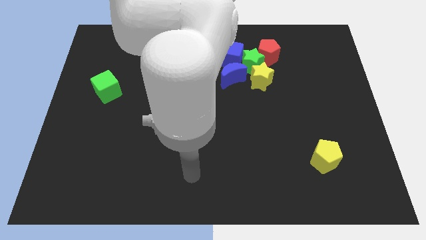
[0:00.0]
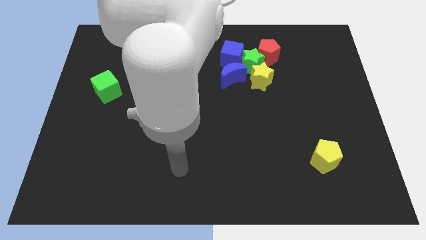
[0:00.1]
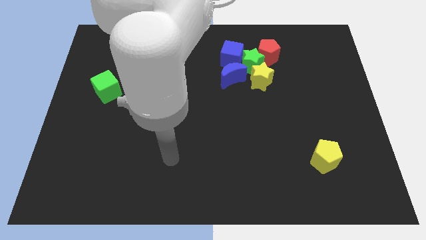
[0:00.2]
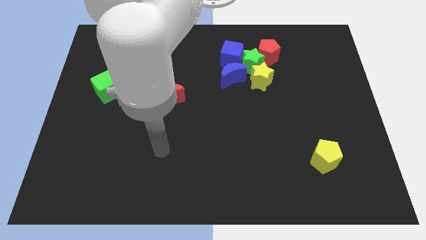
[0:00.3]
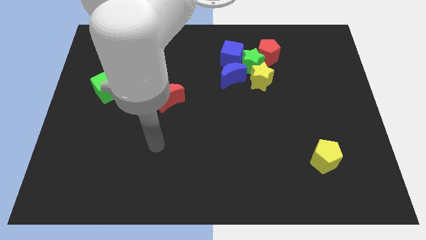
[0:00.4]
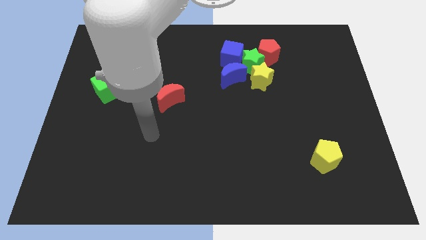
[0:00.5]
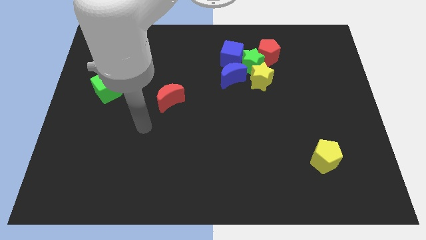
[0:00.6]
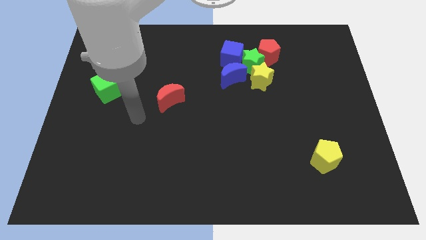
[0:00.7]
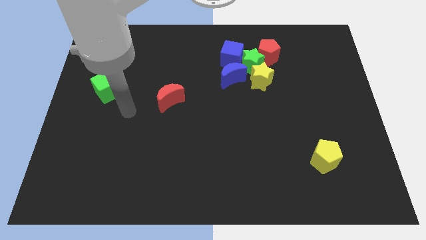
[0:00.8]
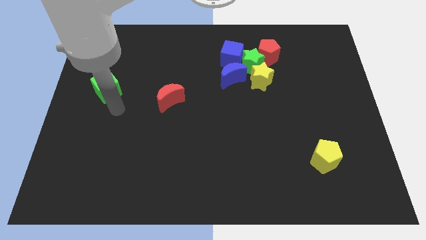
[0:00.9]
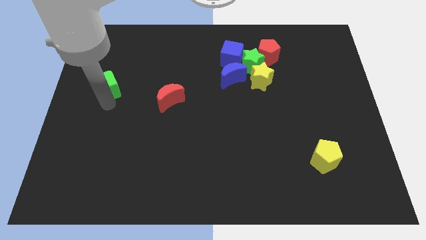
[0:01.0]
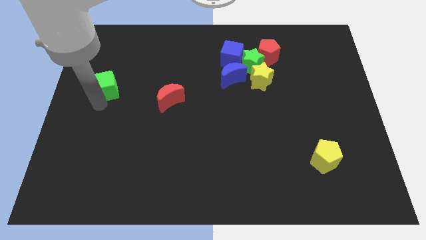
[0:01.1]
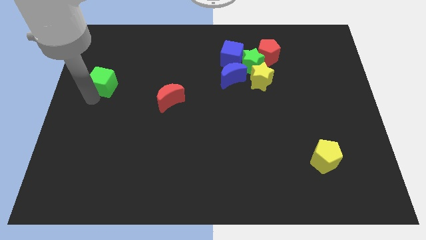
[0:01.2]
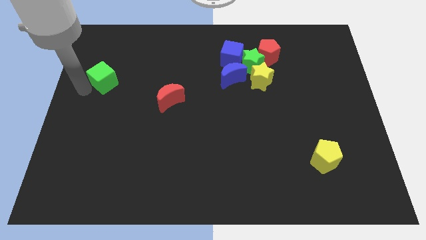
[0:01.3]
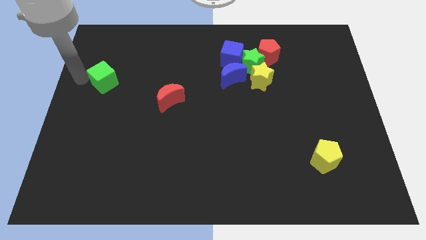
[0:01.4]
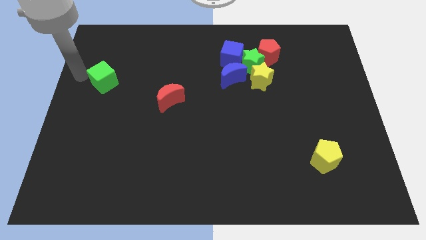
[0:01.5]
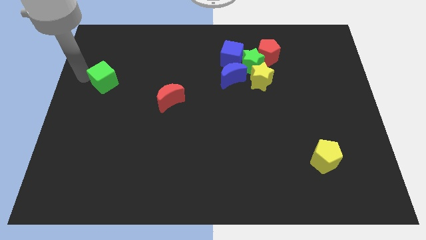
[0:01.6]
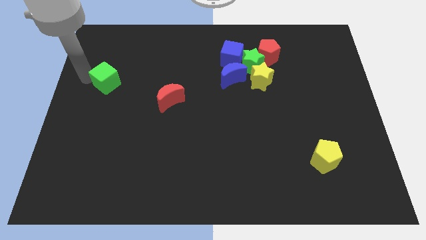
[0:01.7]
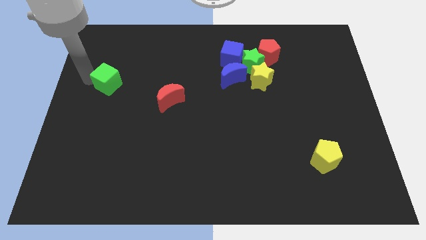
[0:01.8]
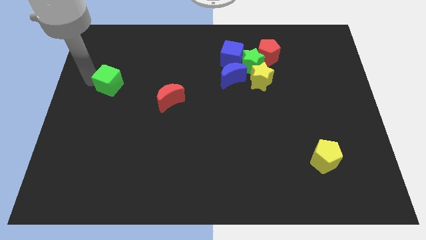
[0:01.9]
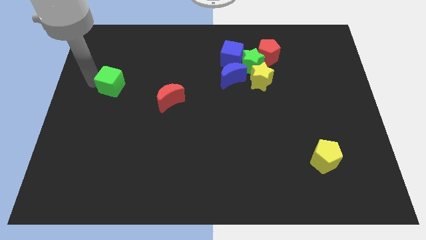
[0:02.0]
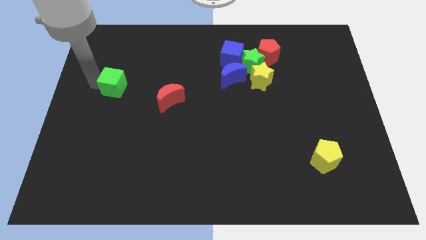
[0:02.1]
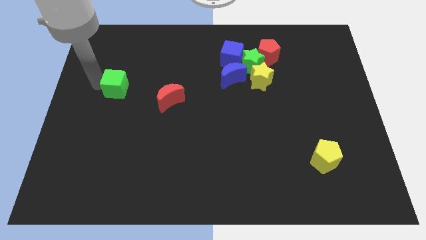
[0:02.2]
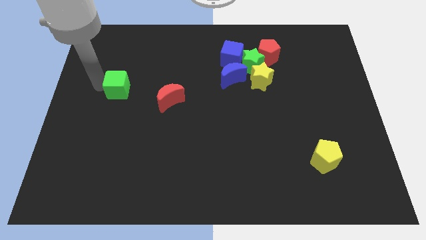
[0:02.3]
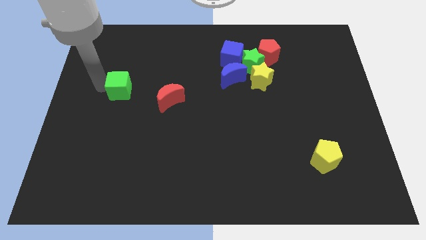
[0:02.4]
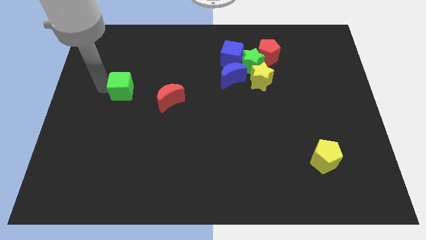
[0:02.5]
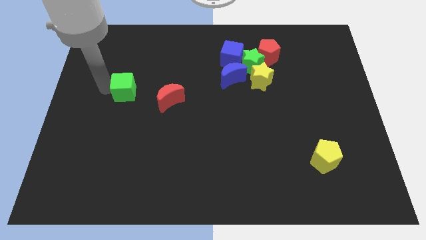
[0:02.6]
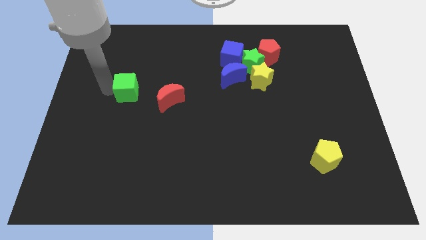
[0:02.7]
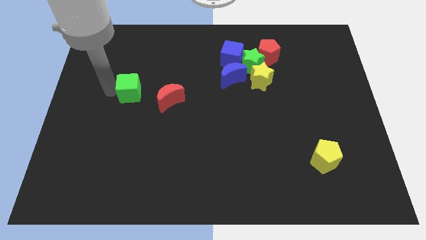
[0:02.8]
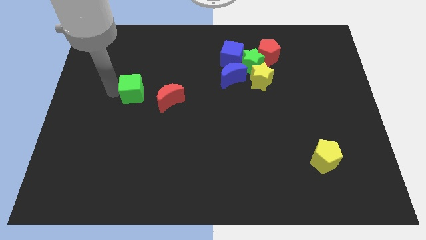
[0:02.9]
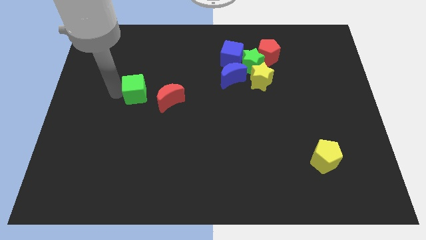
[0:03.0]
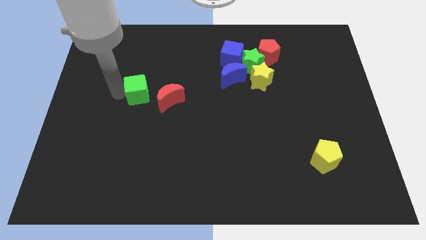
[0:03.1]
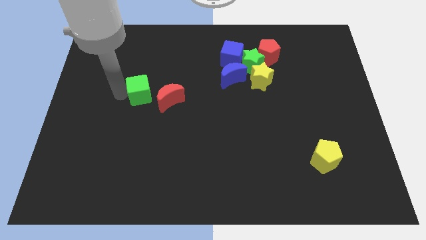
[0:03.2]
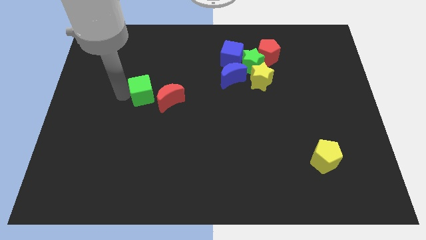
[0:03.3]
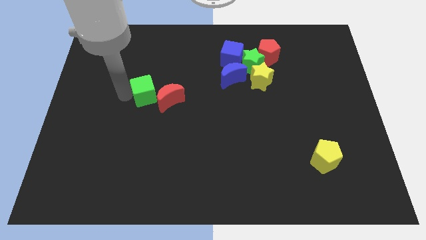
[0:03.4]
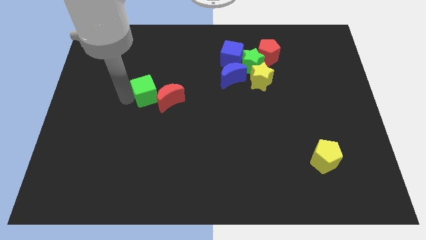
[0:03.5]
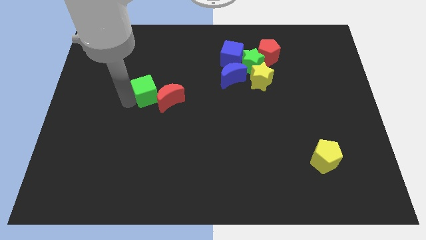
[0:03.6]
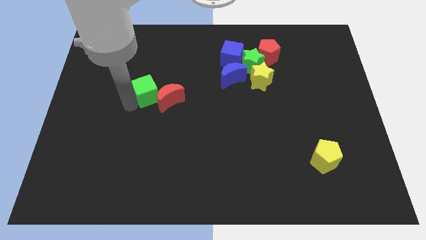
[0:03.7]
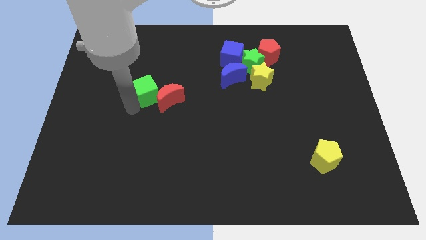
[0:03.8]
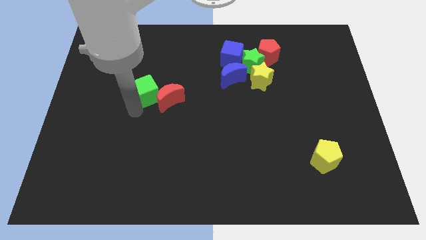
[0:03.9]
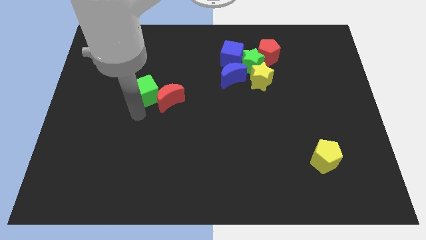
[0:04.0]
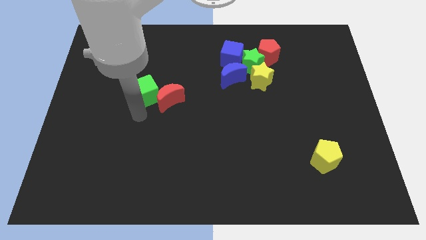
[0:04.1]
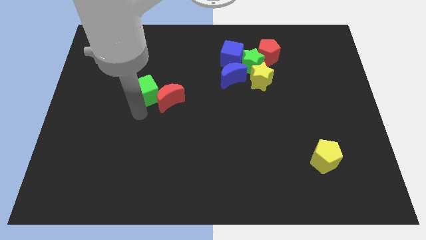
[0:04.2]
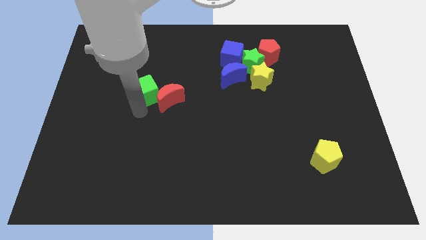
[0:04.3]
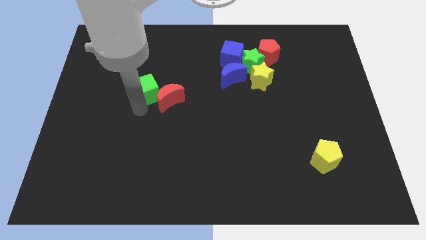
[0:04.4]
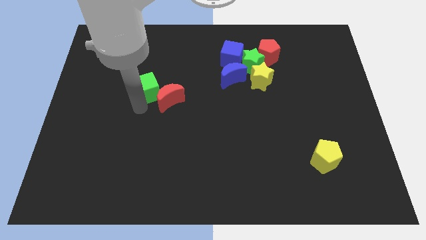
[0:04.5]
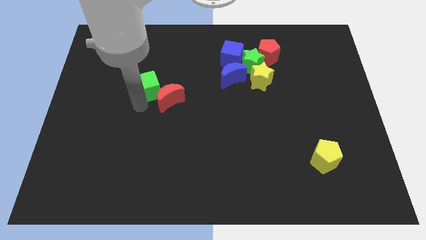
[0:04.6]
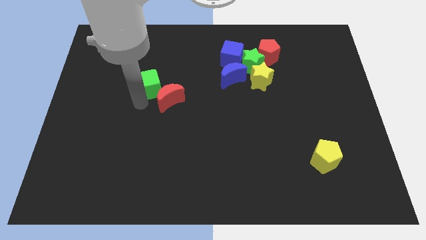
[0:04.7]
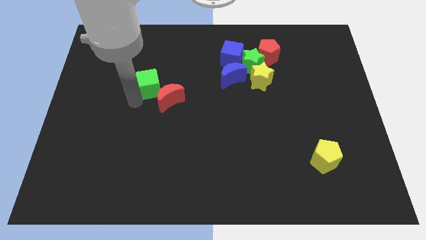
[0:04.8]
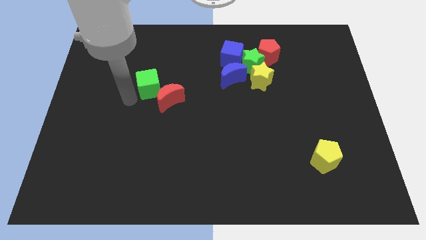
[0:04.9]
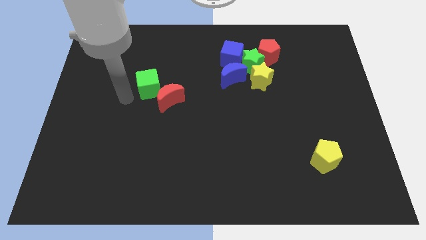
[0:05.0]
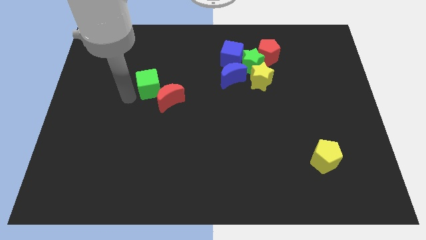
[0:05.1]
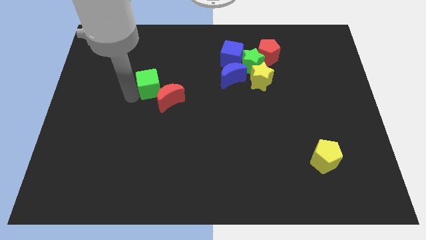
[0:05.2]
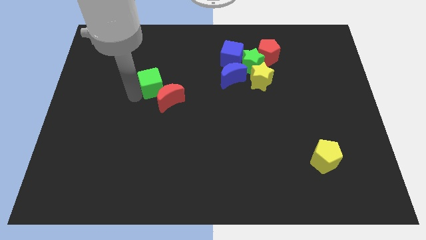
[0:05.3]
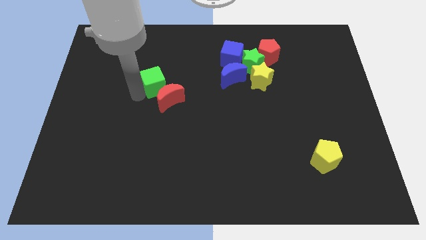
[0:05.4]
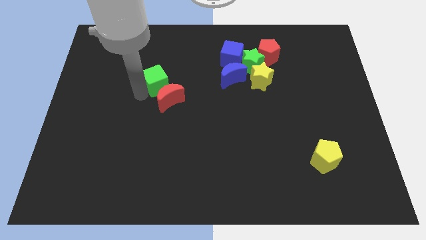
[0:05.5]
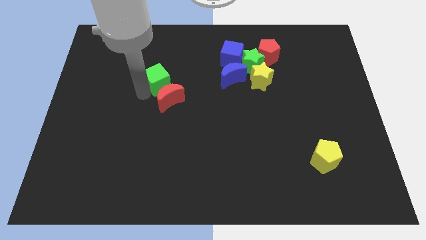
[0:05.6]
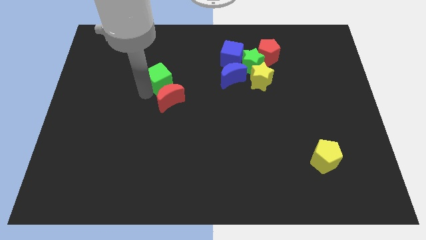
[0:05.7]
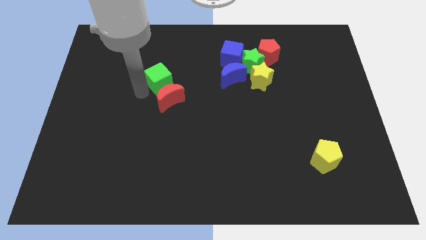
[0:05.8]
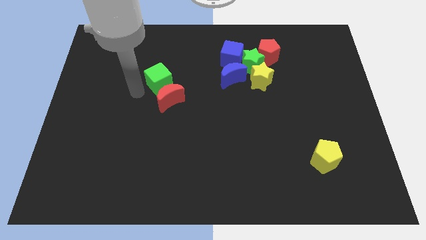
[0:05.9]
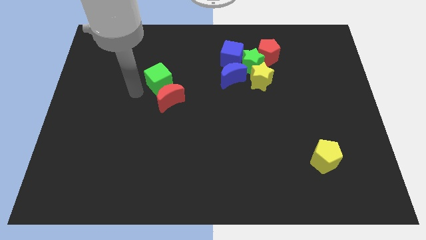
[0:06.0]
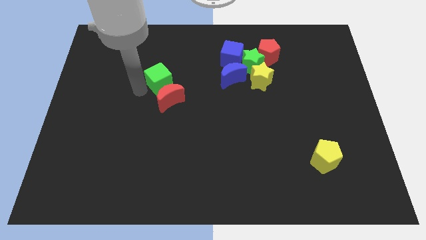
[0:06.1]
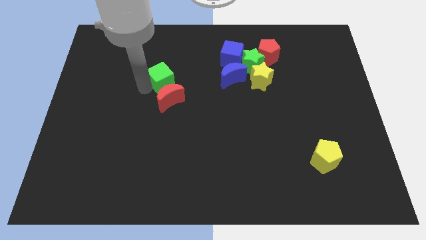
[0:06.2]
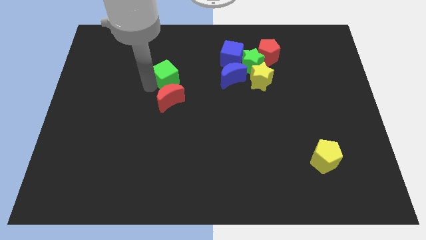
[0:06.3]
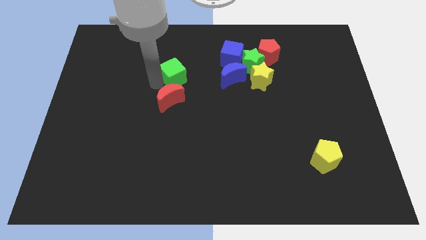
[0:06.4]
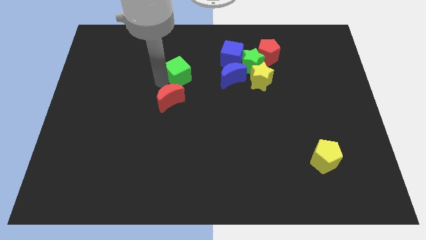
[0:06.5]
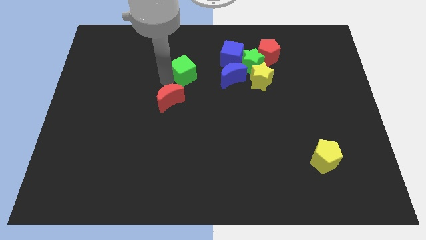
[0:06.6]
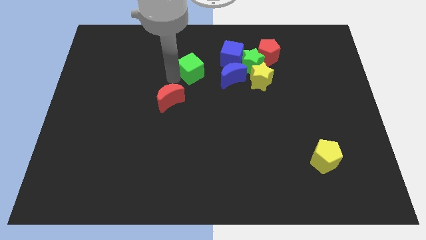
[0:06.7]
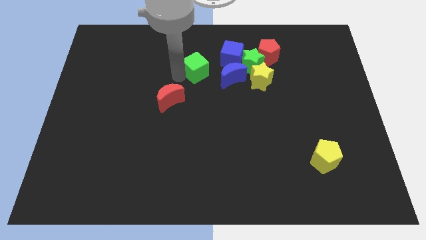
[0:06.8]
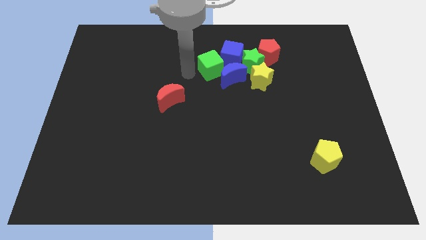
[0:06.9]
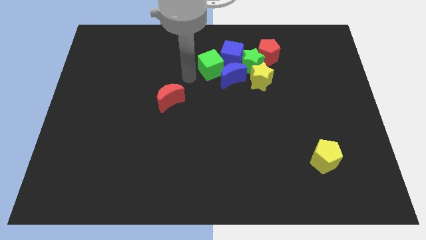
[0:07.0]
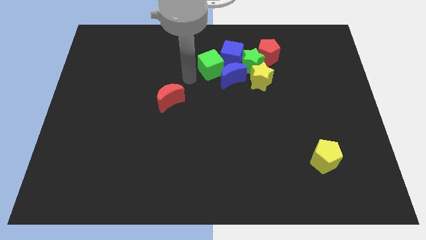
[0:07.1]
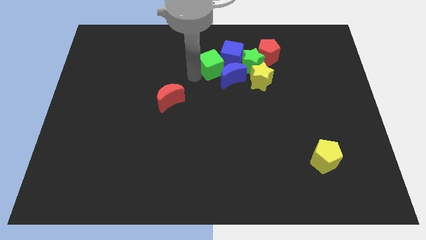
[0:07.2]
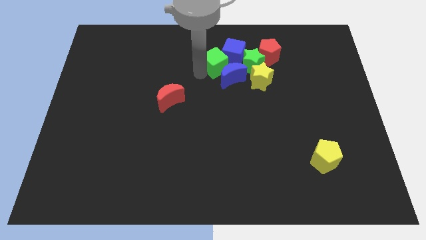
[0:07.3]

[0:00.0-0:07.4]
move the green cube next to the blue cube
